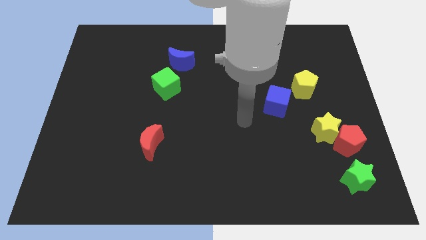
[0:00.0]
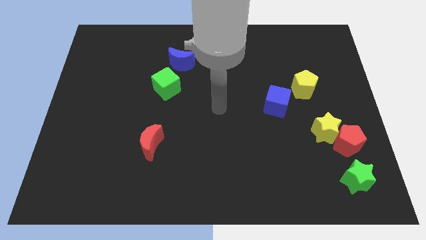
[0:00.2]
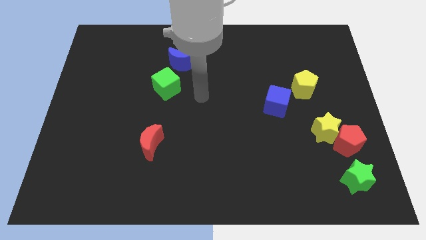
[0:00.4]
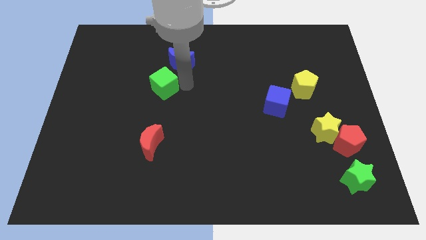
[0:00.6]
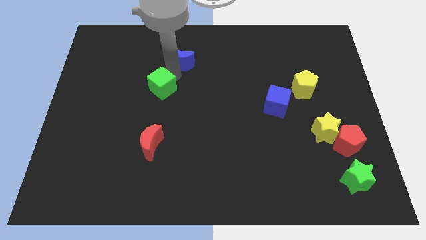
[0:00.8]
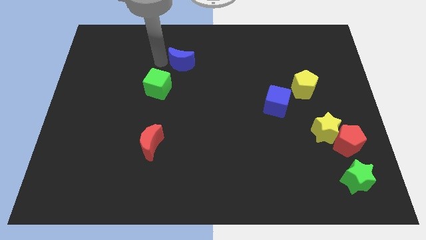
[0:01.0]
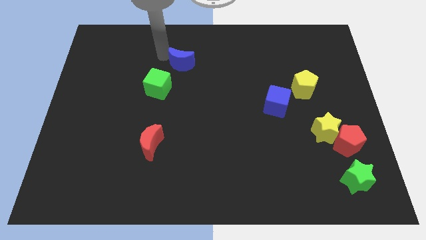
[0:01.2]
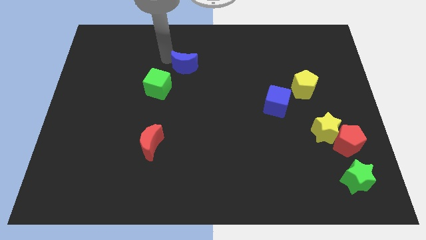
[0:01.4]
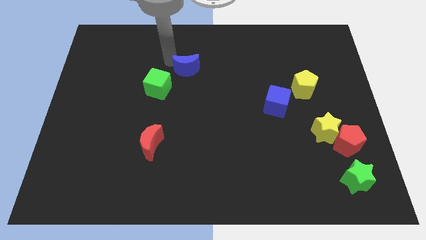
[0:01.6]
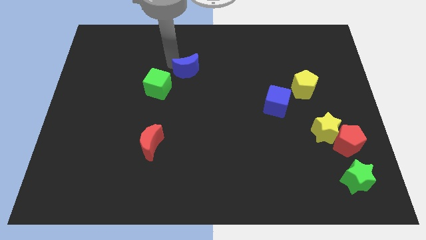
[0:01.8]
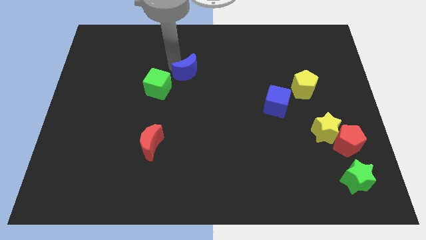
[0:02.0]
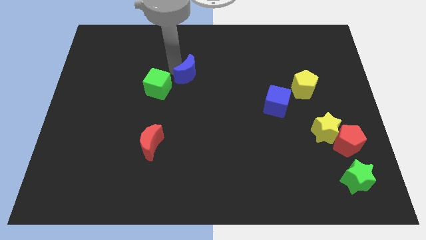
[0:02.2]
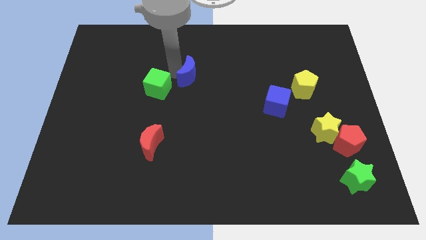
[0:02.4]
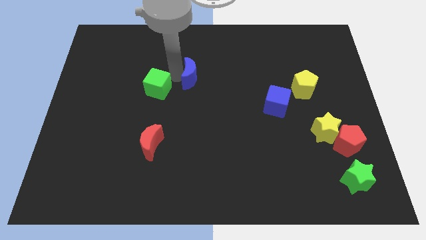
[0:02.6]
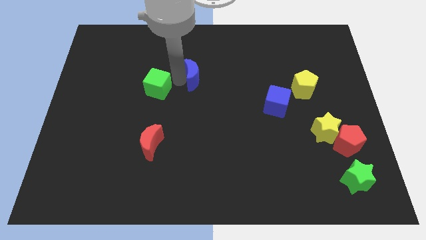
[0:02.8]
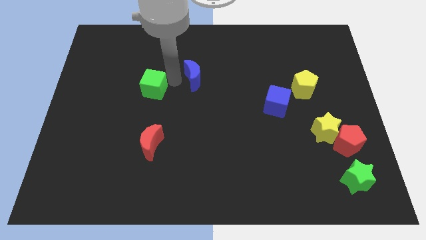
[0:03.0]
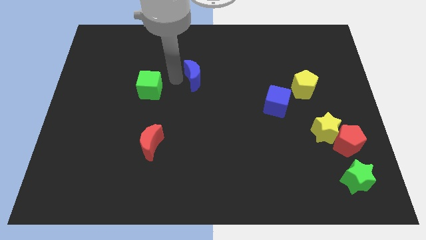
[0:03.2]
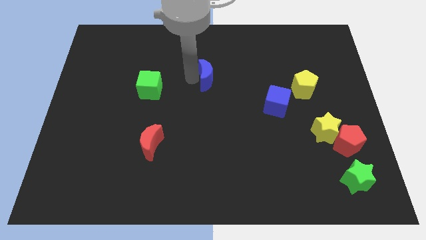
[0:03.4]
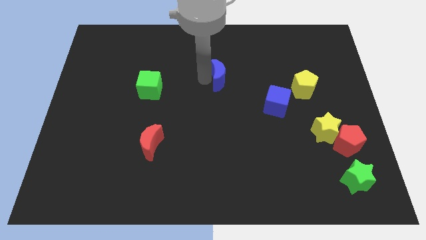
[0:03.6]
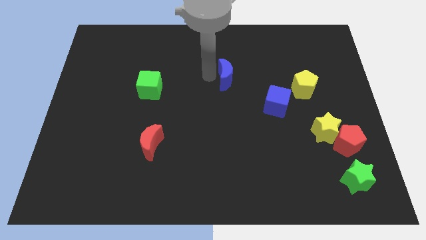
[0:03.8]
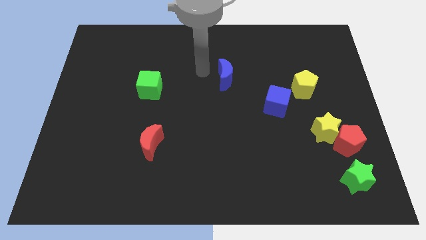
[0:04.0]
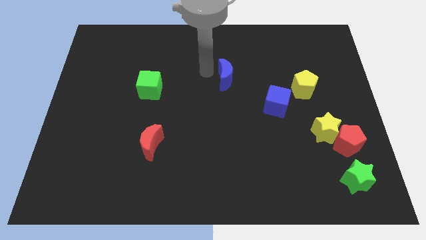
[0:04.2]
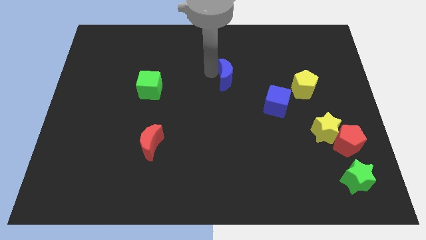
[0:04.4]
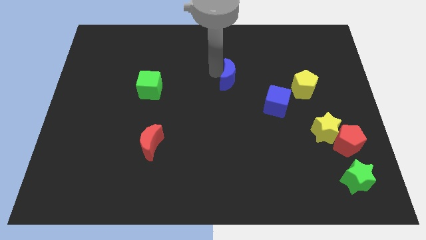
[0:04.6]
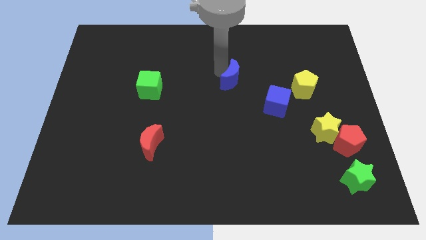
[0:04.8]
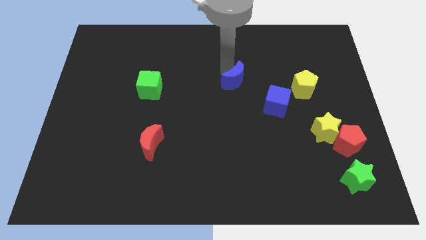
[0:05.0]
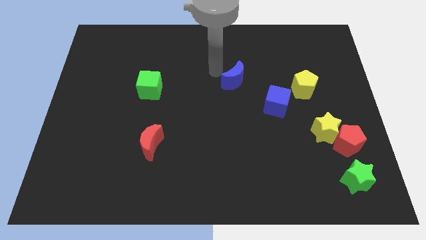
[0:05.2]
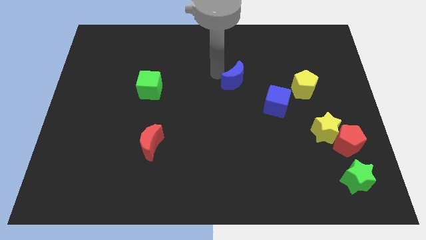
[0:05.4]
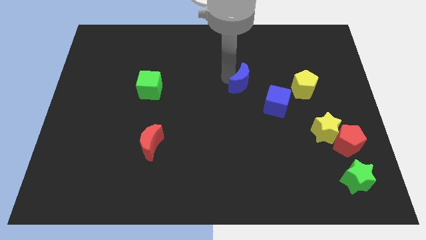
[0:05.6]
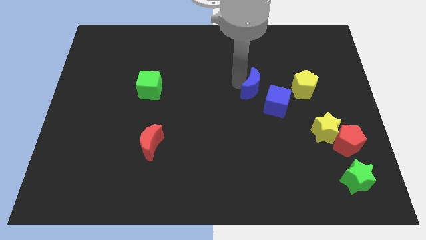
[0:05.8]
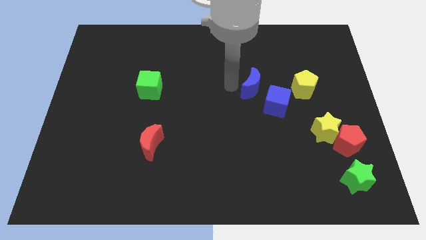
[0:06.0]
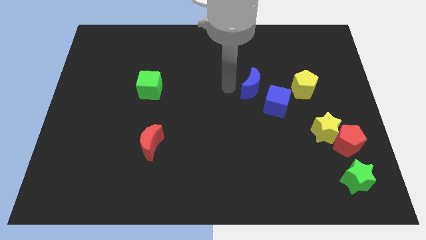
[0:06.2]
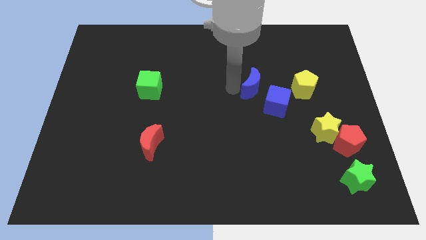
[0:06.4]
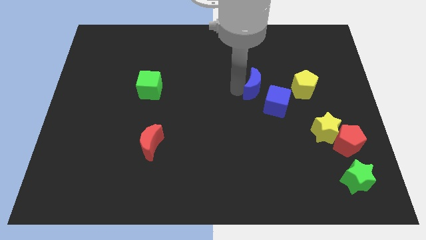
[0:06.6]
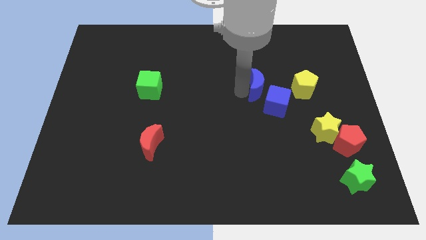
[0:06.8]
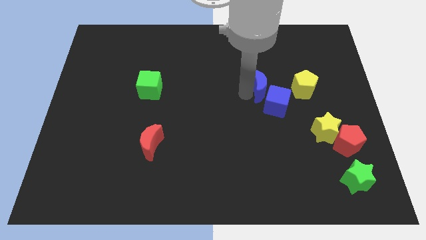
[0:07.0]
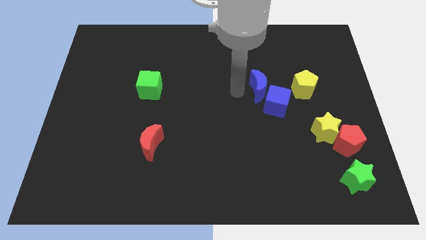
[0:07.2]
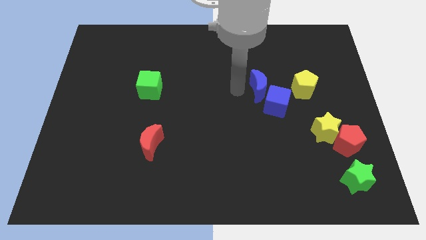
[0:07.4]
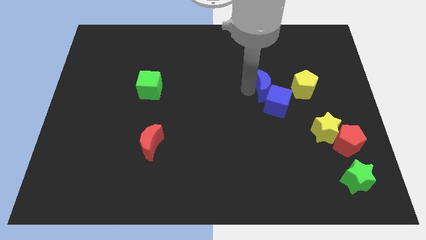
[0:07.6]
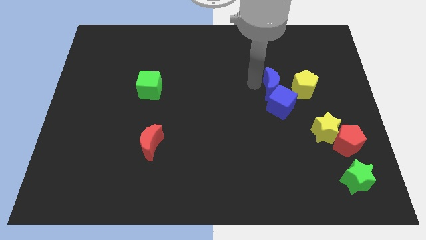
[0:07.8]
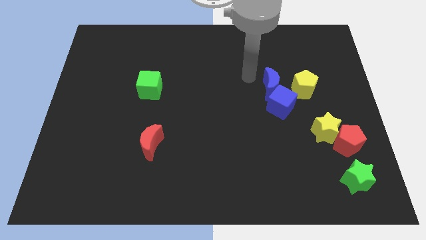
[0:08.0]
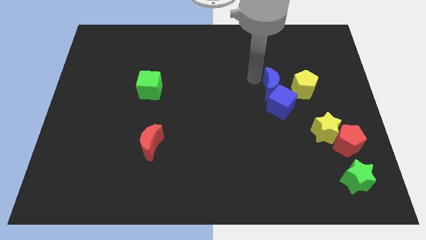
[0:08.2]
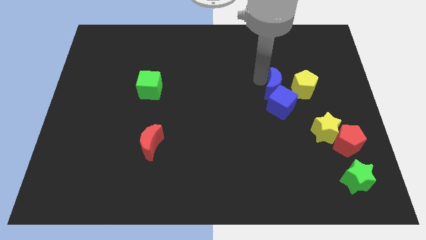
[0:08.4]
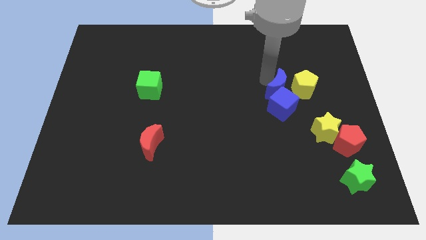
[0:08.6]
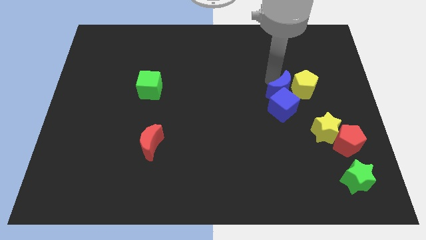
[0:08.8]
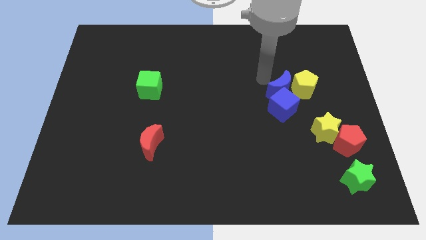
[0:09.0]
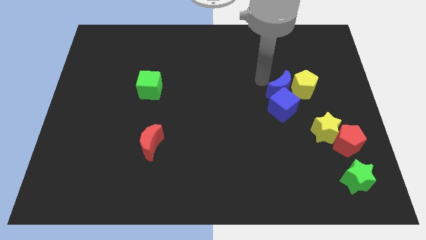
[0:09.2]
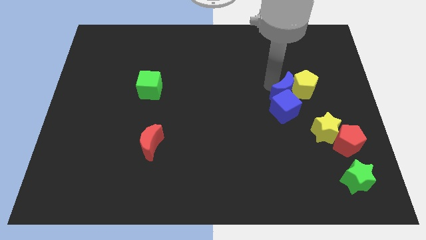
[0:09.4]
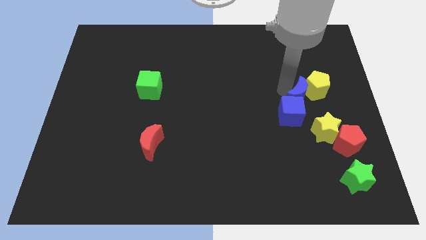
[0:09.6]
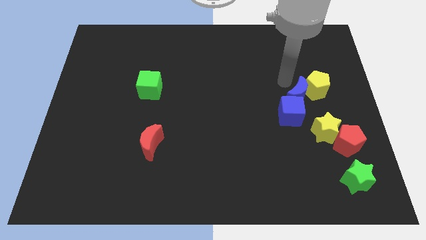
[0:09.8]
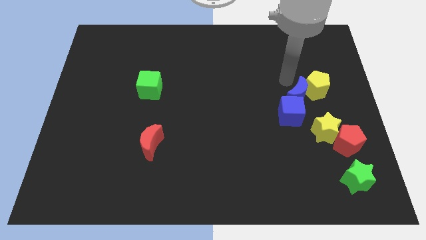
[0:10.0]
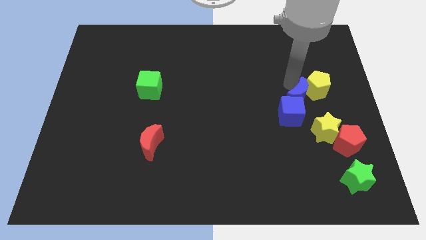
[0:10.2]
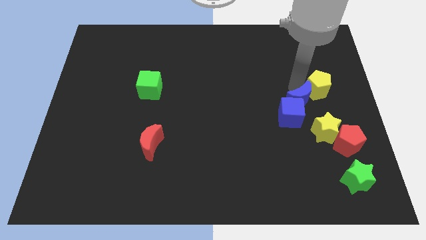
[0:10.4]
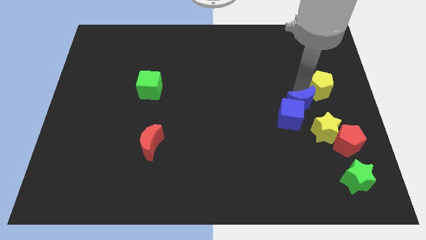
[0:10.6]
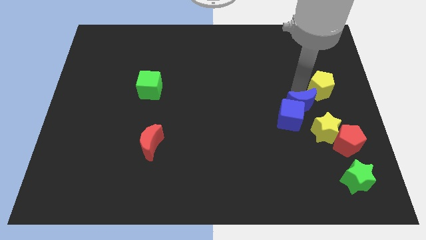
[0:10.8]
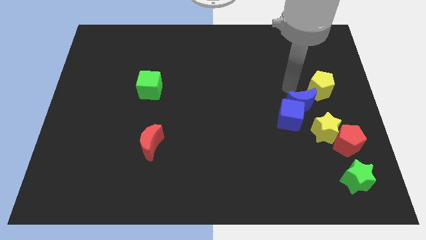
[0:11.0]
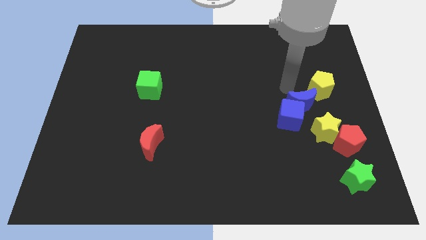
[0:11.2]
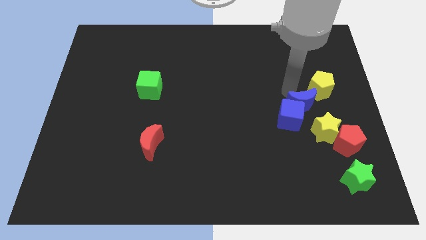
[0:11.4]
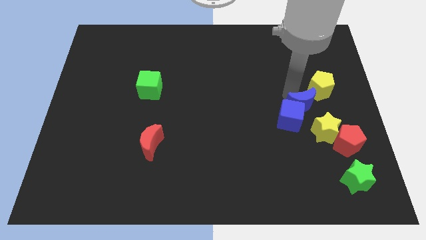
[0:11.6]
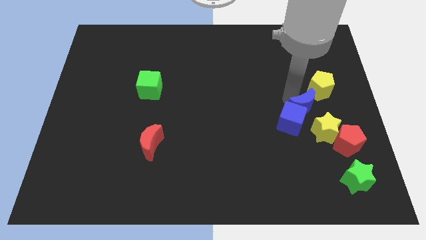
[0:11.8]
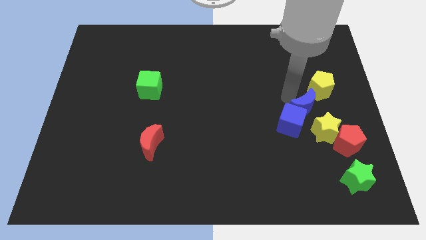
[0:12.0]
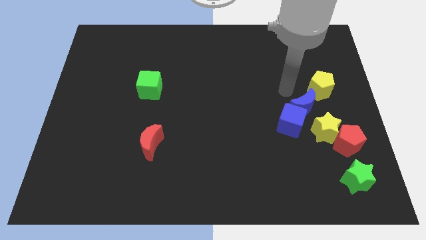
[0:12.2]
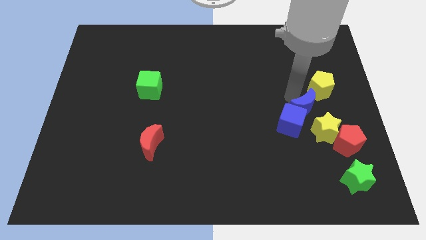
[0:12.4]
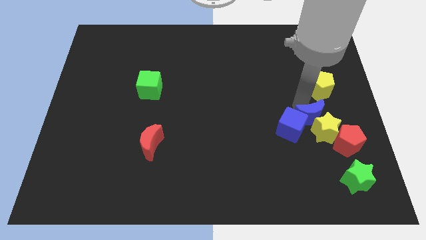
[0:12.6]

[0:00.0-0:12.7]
slide the blue moon towards the yellow star
